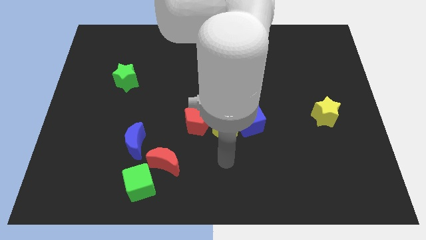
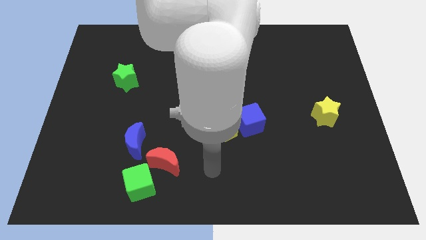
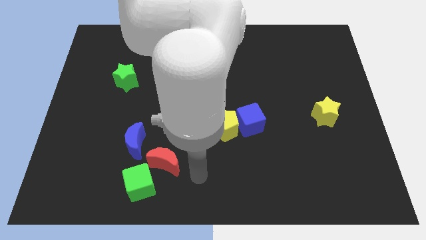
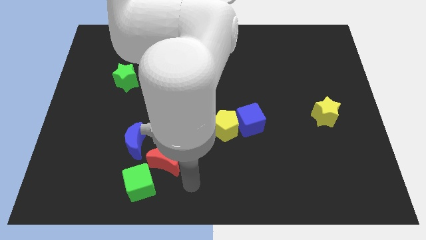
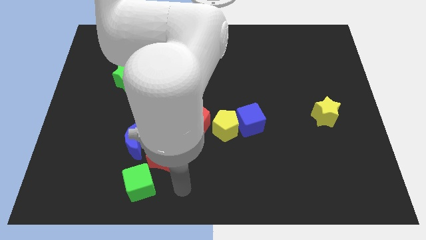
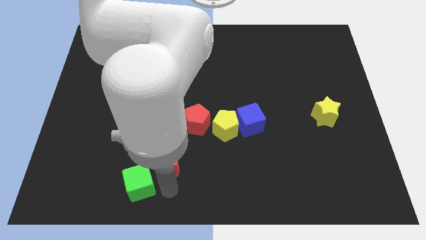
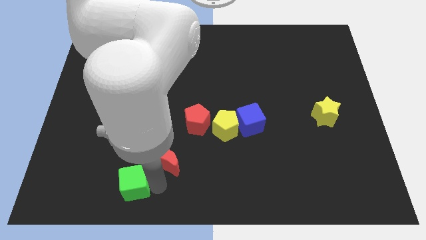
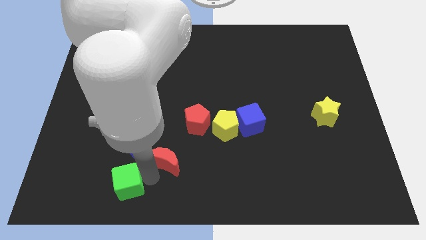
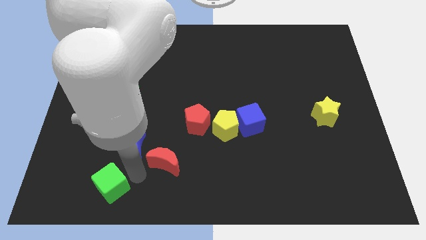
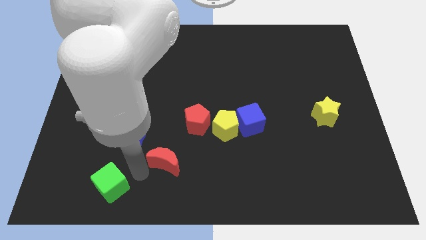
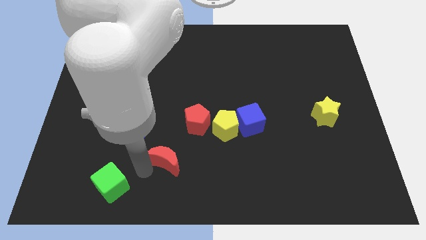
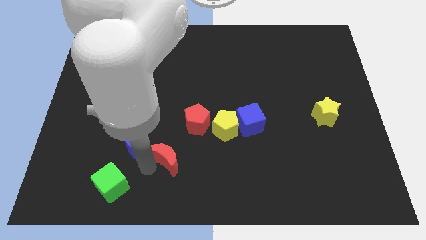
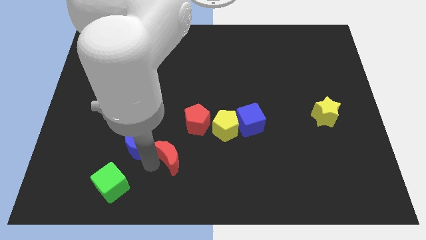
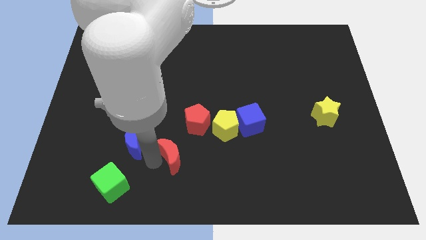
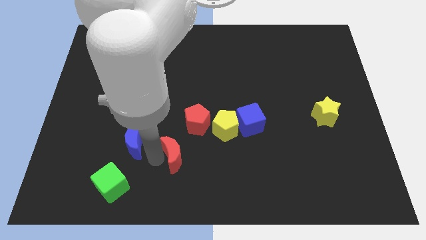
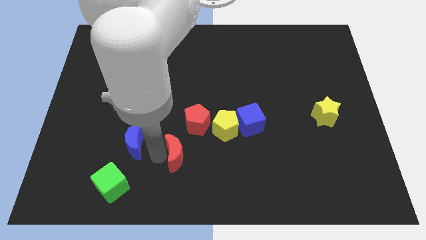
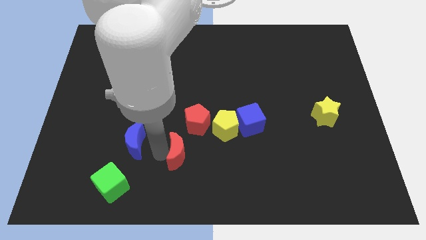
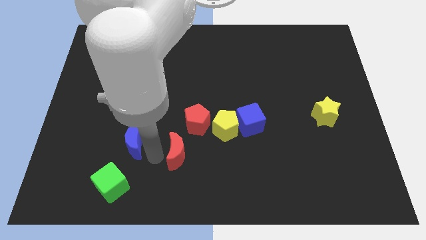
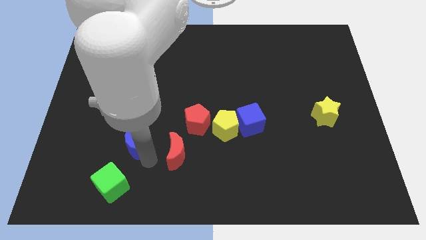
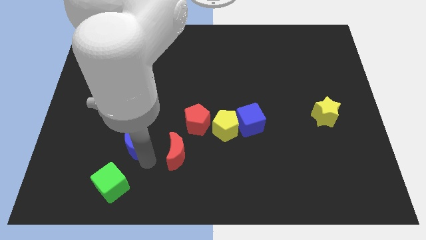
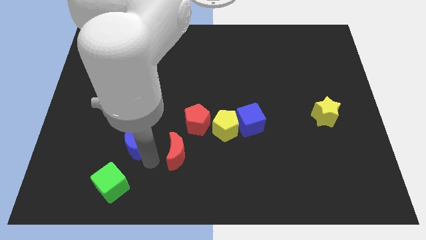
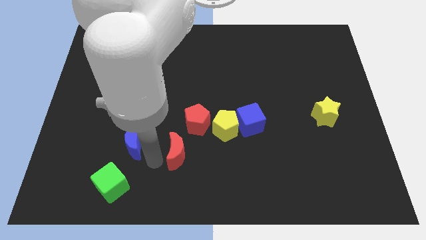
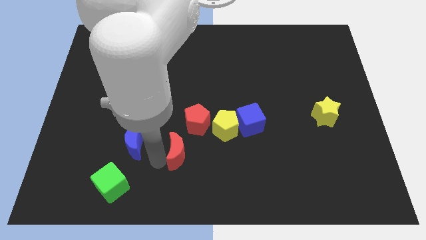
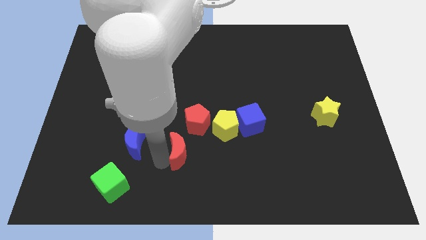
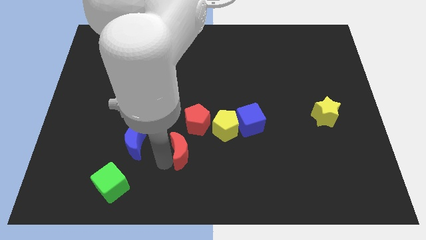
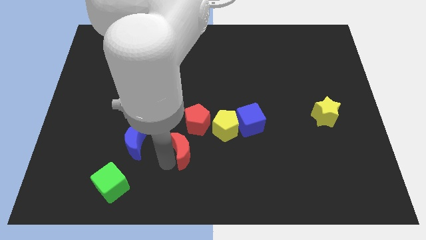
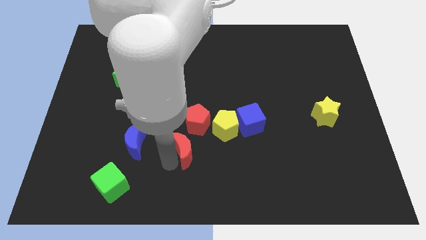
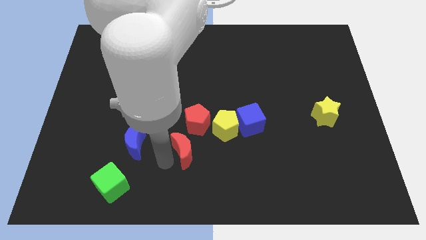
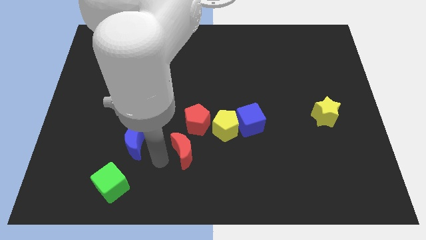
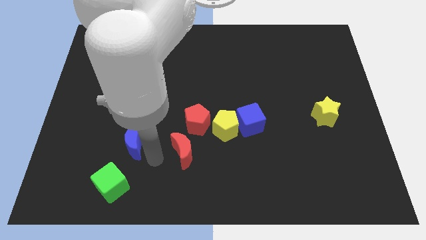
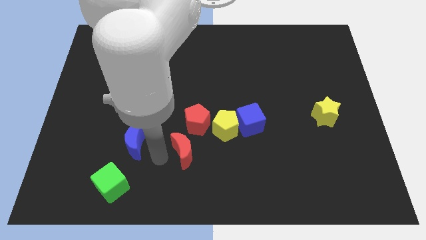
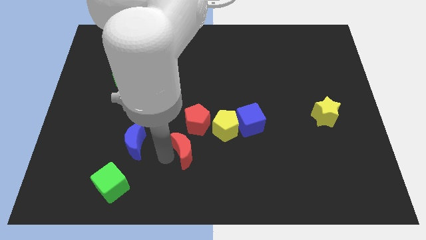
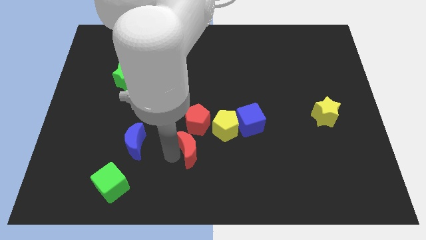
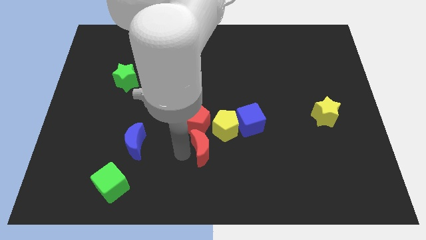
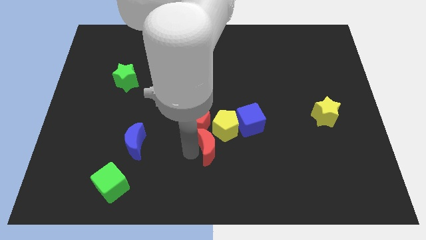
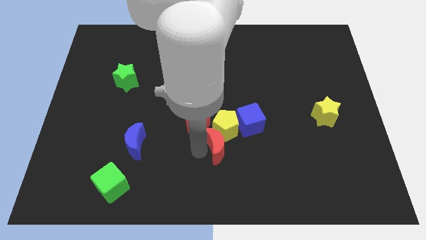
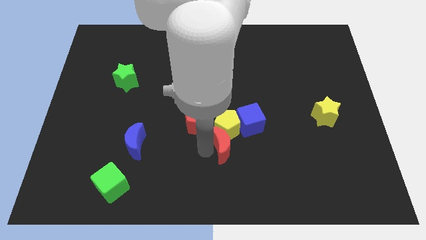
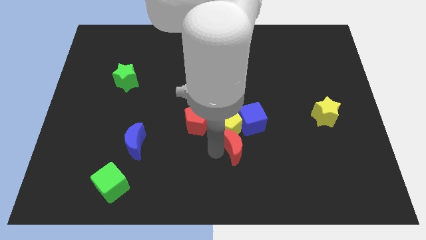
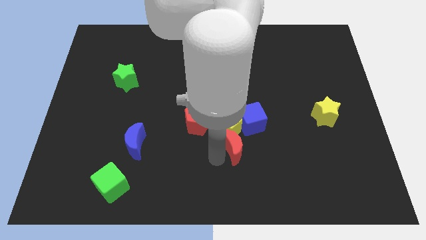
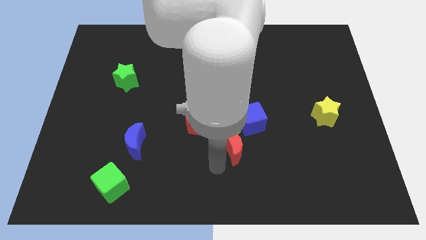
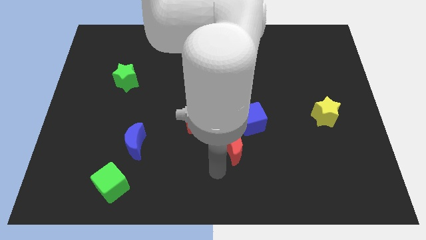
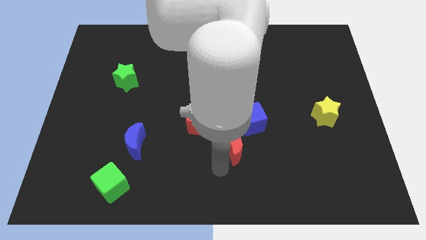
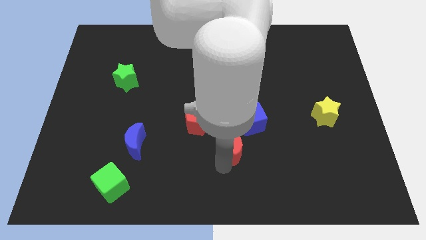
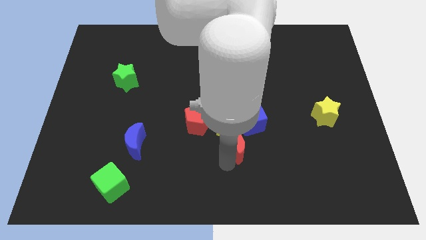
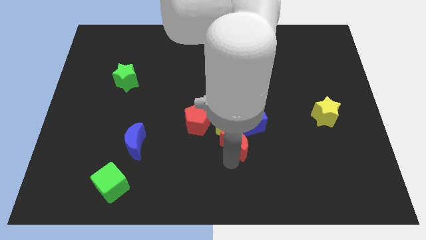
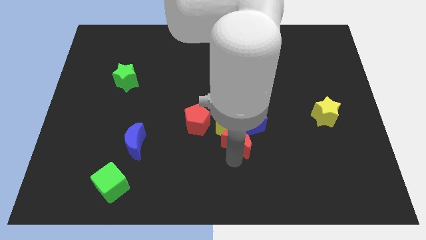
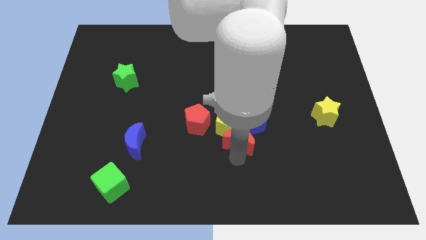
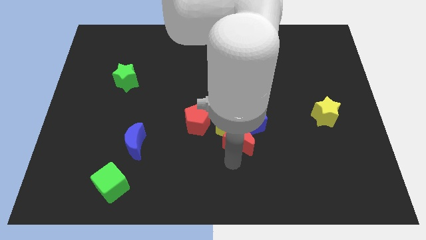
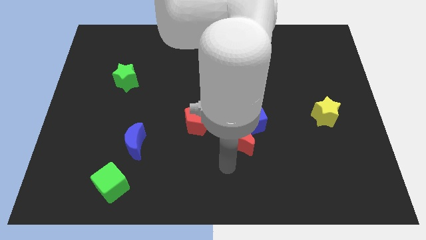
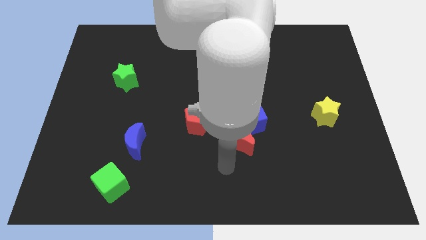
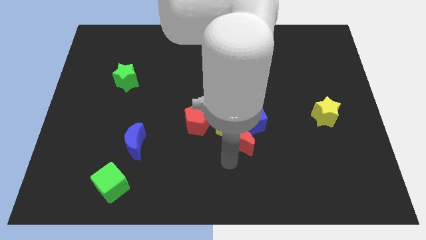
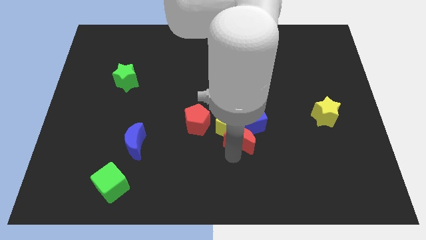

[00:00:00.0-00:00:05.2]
put the red moon next to the blue cube

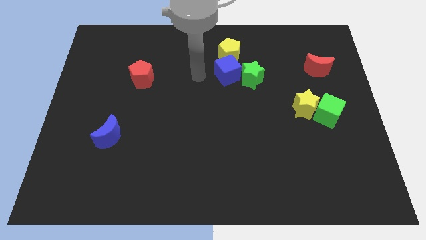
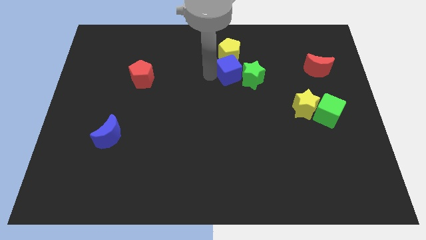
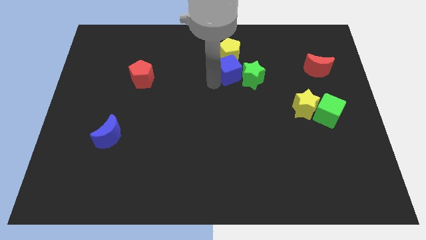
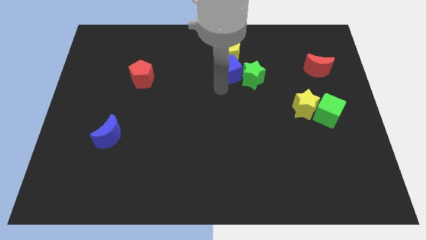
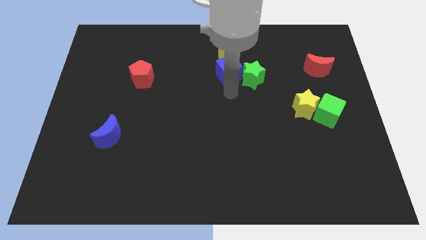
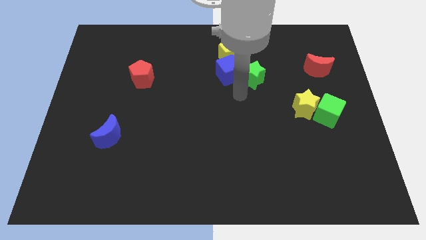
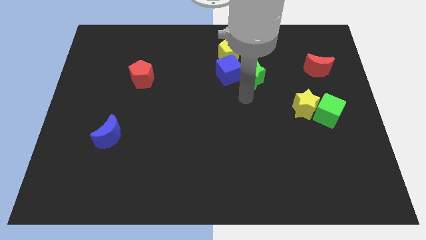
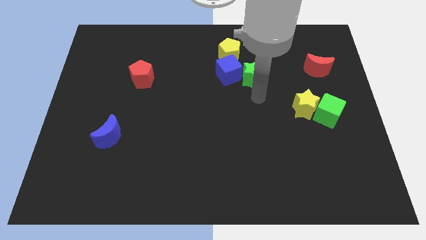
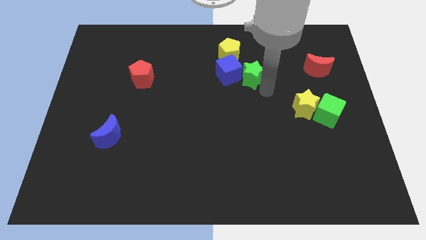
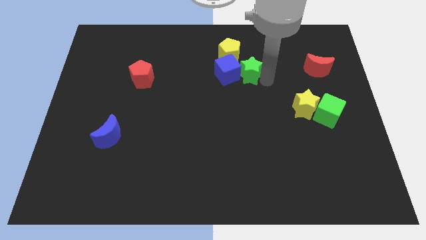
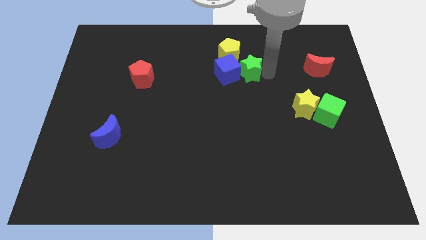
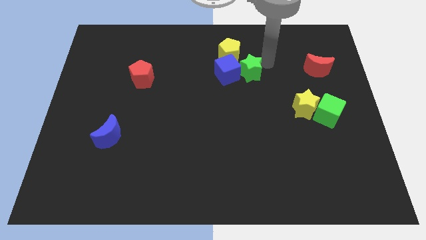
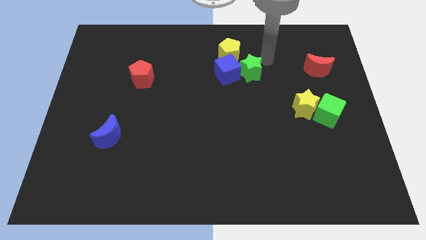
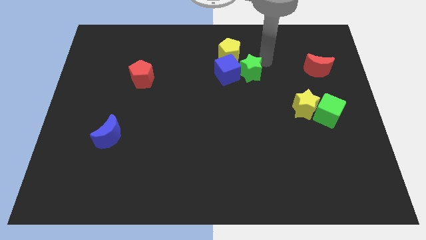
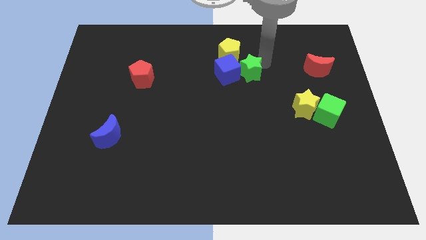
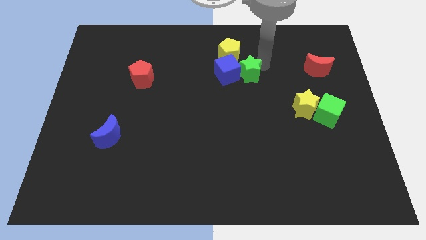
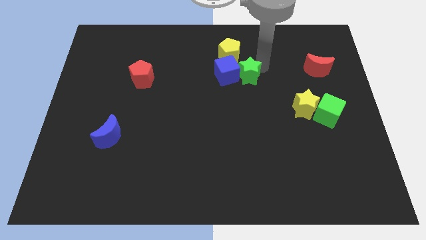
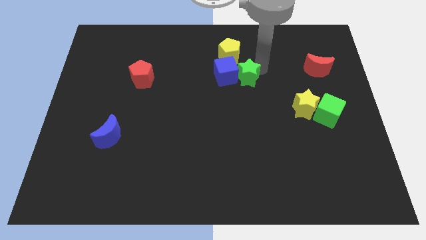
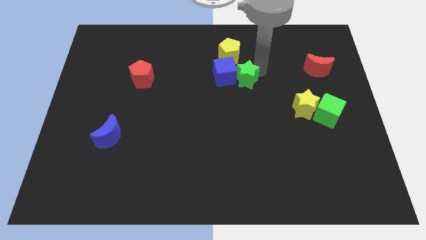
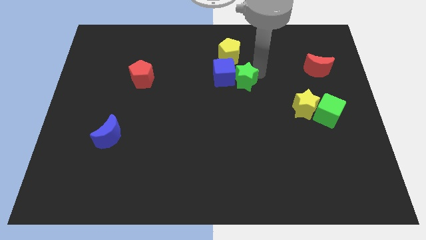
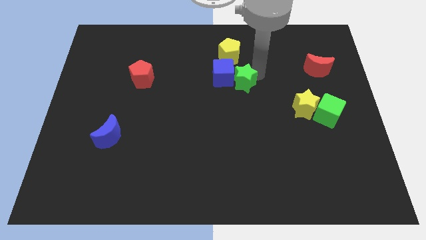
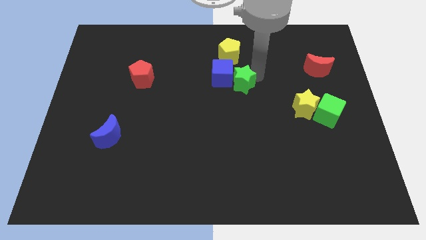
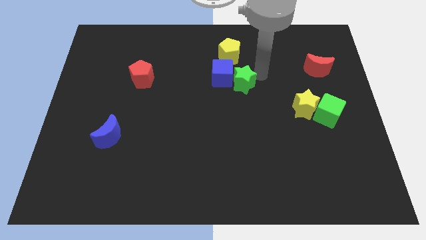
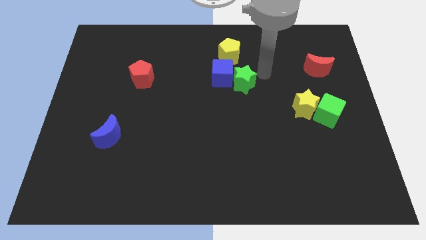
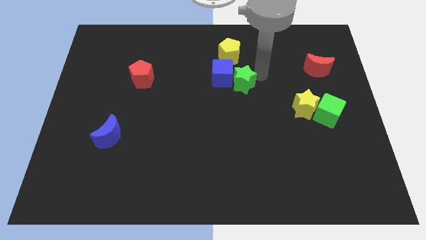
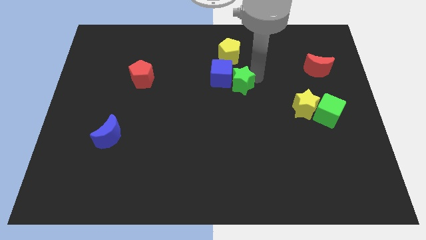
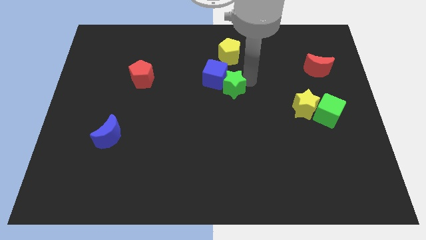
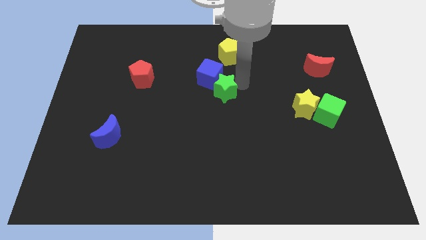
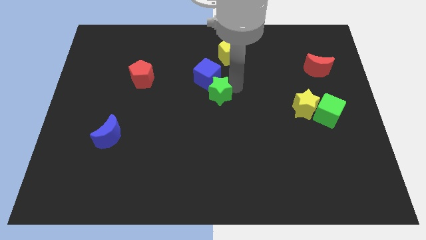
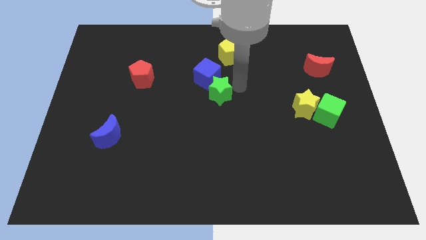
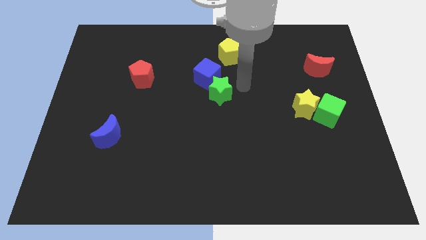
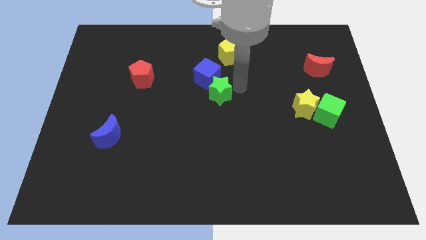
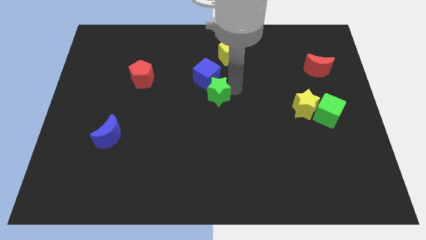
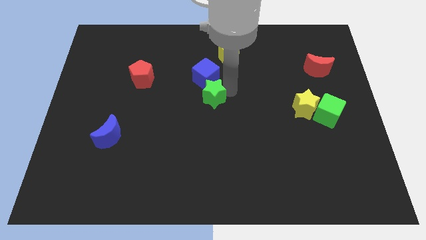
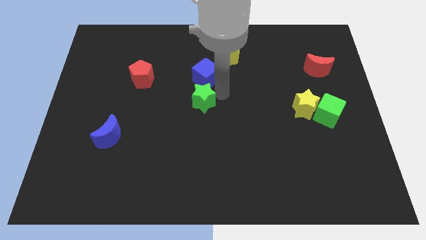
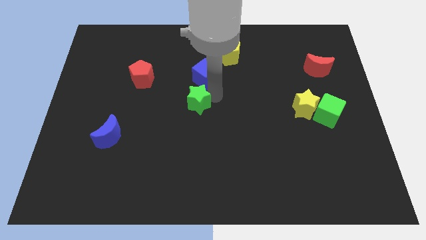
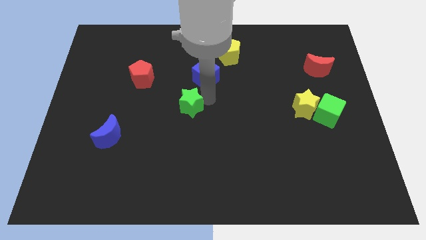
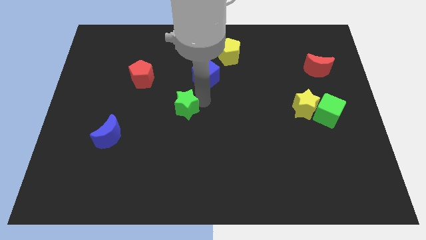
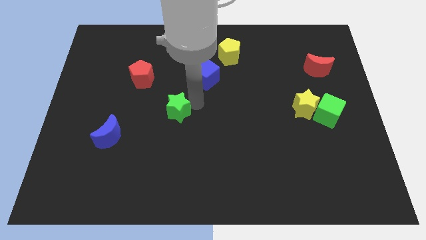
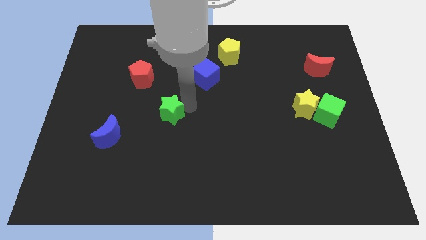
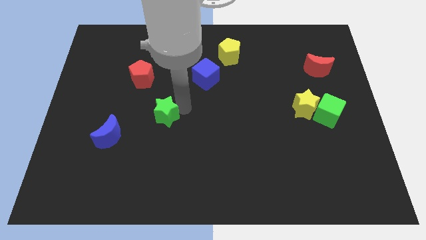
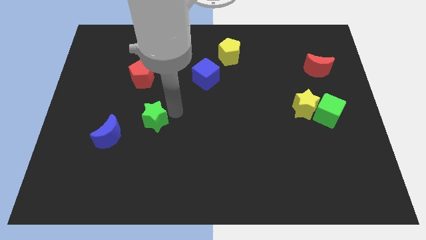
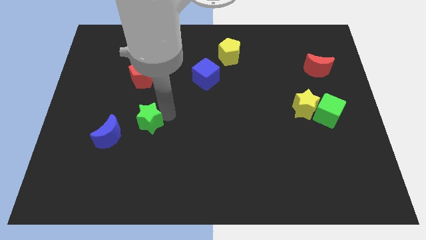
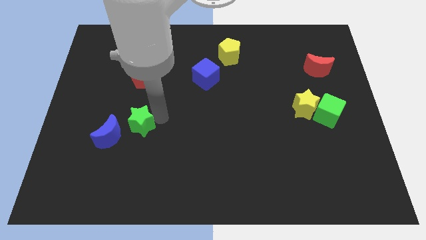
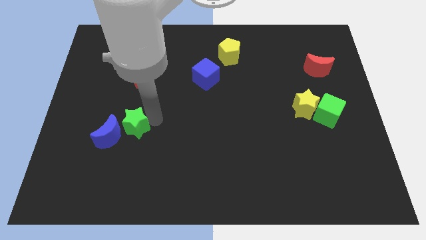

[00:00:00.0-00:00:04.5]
push the green star next to the blue moon
